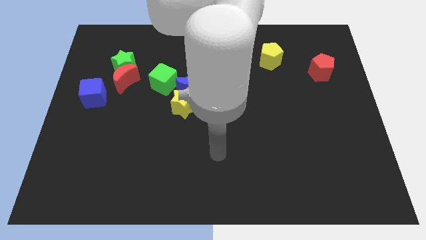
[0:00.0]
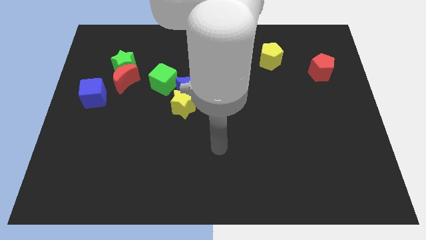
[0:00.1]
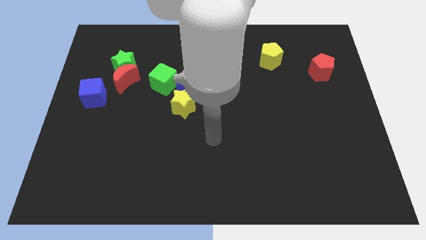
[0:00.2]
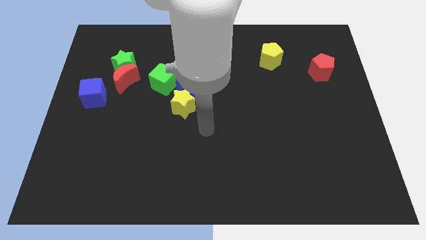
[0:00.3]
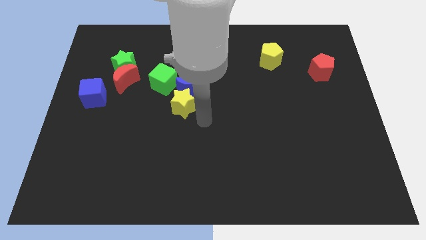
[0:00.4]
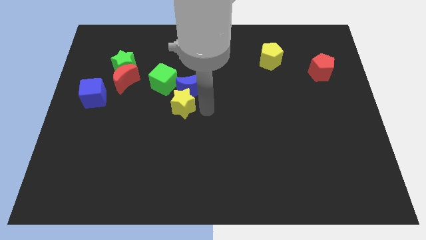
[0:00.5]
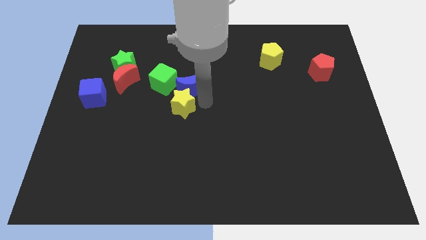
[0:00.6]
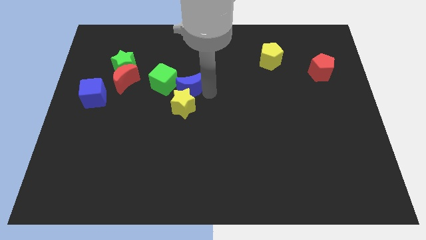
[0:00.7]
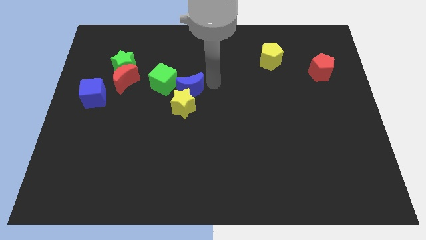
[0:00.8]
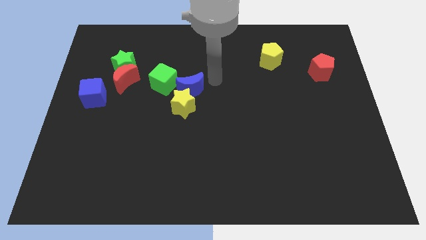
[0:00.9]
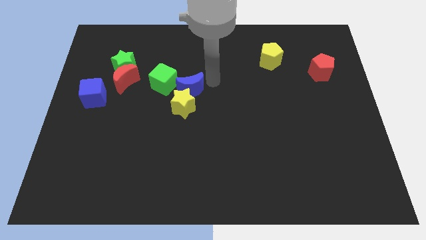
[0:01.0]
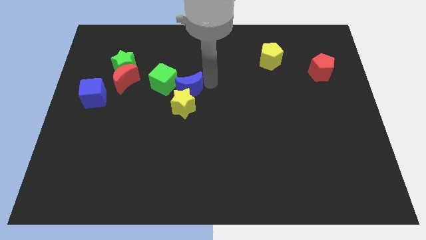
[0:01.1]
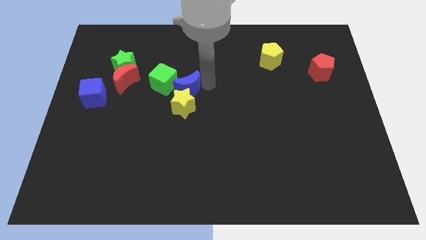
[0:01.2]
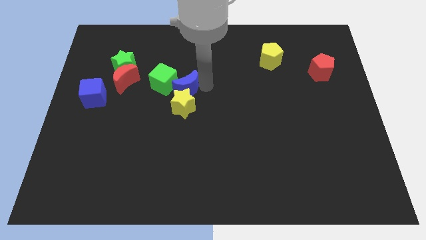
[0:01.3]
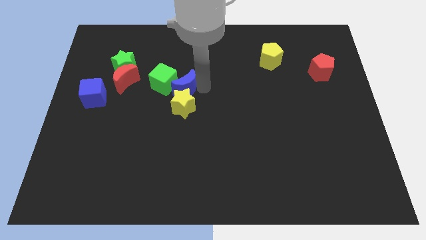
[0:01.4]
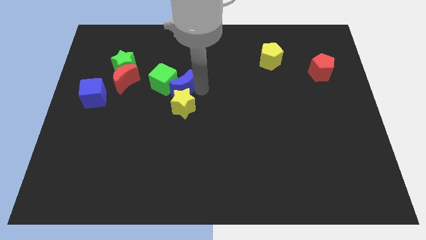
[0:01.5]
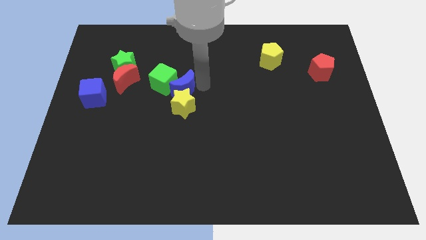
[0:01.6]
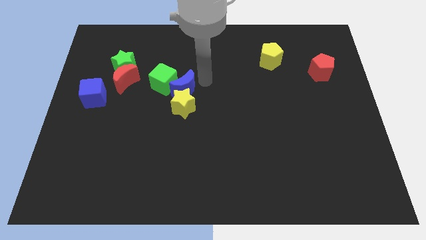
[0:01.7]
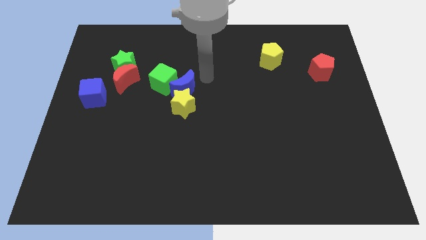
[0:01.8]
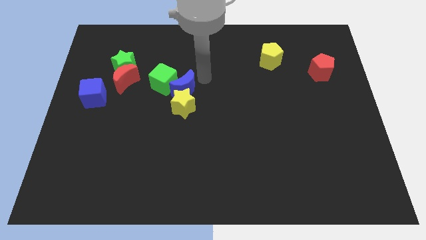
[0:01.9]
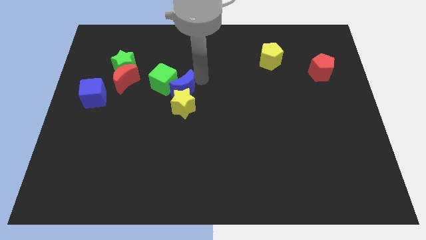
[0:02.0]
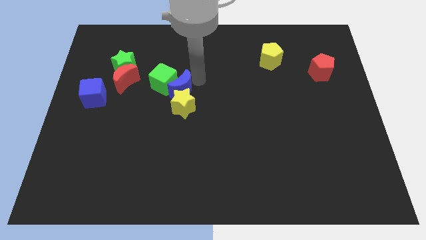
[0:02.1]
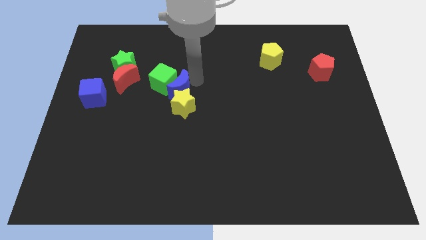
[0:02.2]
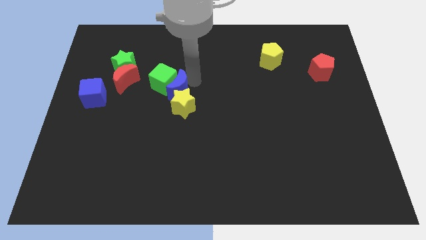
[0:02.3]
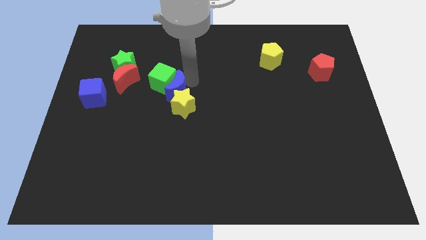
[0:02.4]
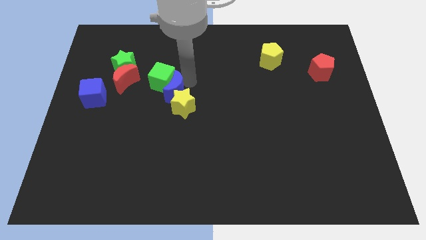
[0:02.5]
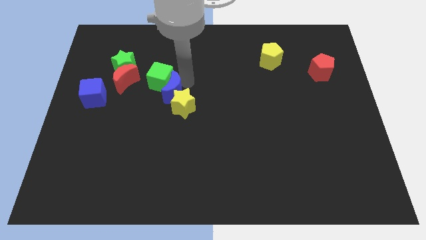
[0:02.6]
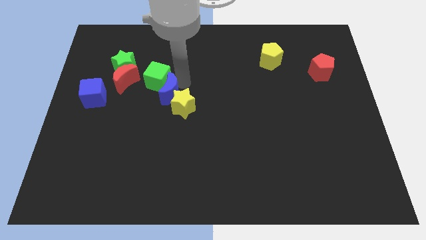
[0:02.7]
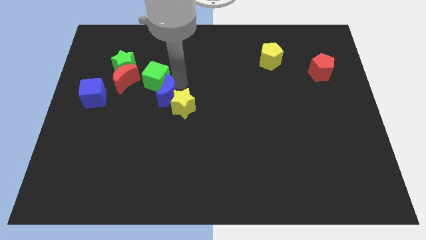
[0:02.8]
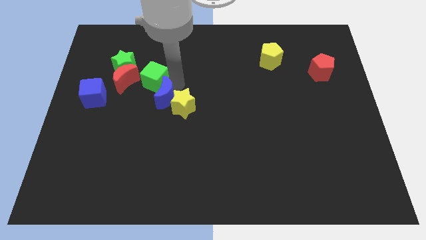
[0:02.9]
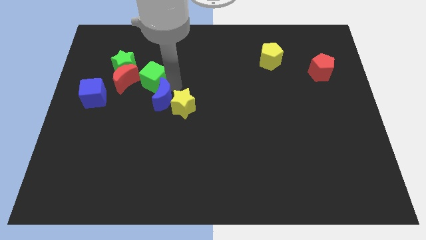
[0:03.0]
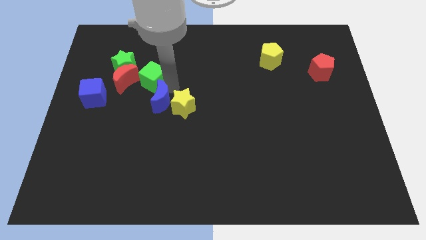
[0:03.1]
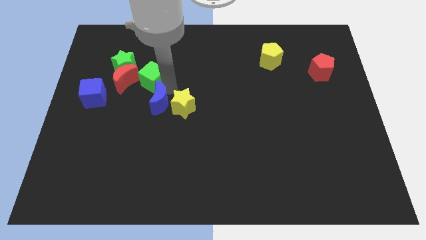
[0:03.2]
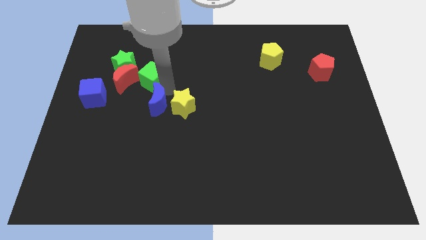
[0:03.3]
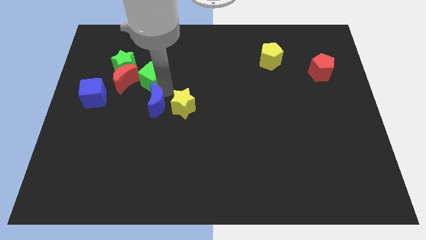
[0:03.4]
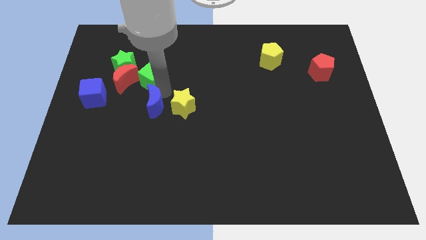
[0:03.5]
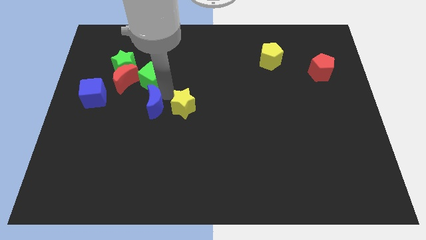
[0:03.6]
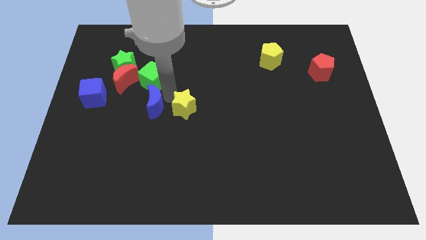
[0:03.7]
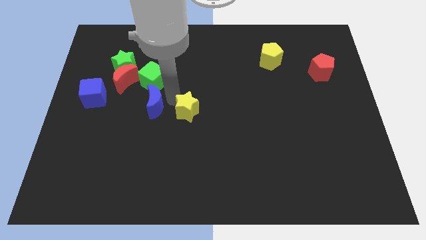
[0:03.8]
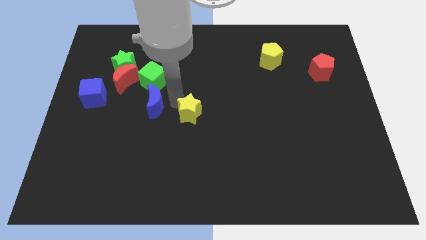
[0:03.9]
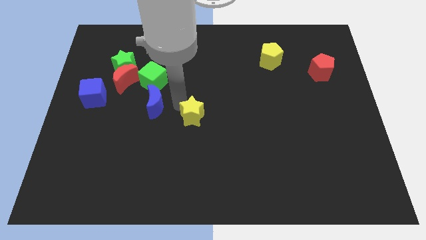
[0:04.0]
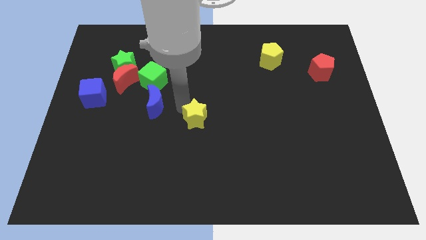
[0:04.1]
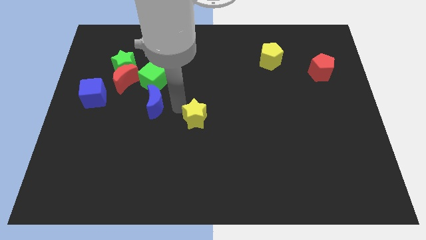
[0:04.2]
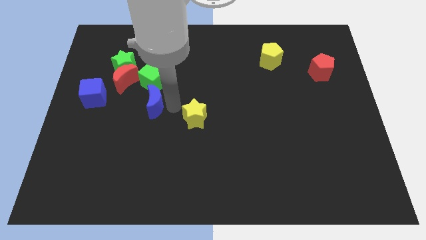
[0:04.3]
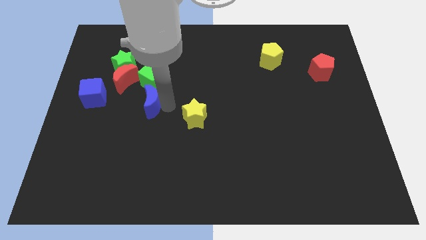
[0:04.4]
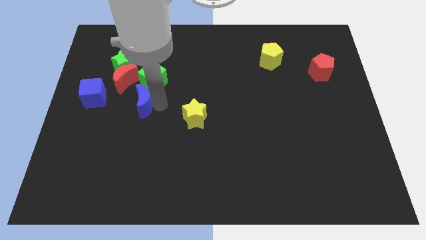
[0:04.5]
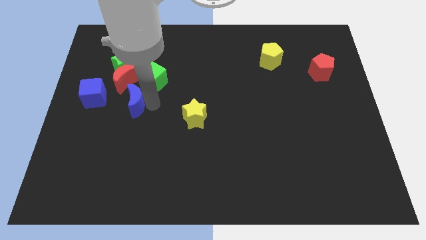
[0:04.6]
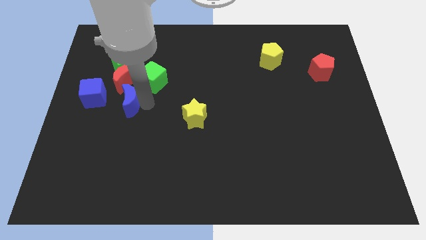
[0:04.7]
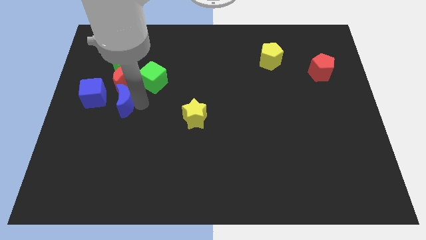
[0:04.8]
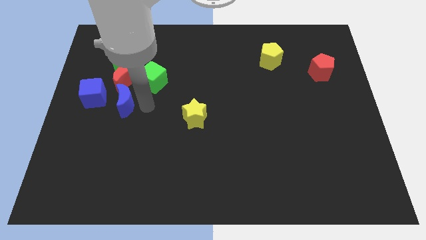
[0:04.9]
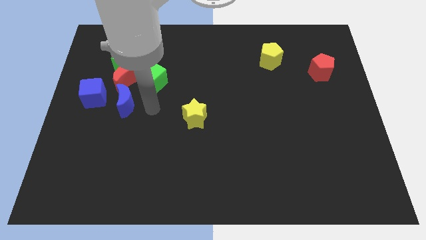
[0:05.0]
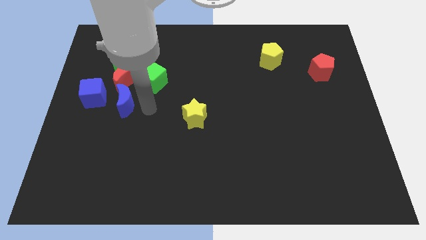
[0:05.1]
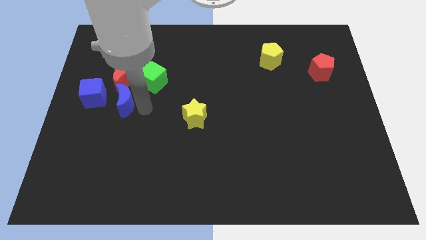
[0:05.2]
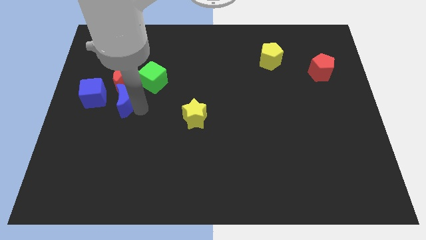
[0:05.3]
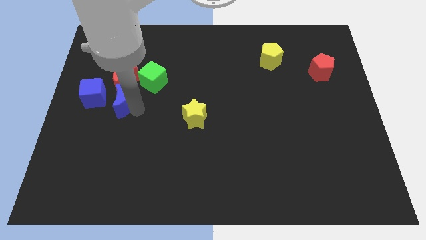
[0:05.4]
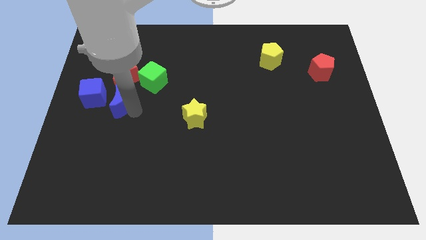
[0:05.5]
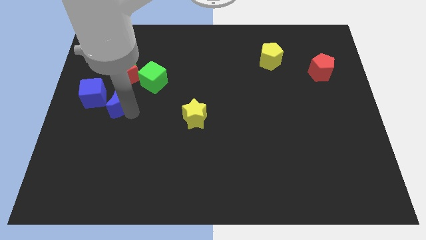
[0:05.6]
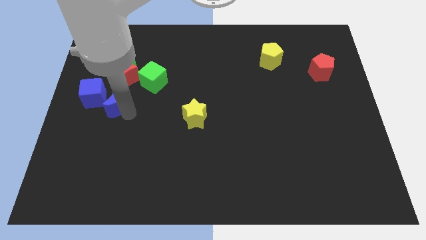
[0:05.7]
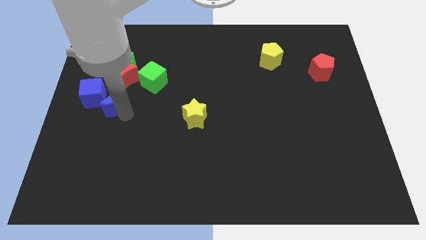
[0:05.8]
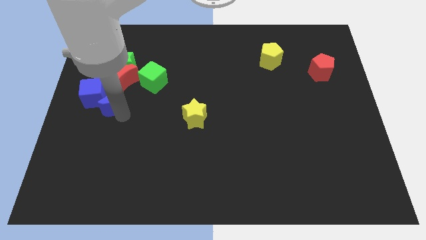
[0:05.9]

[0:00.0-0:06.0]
push the blue moon towards the blue cube

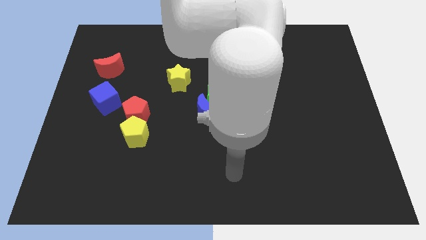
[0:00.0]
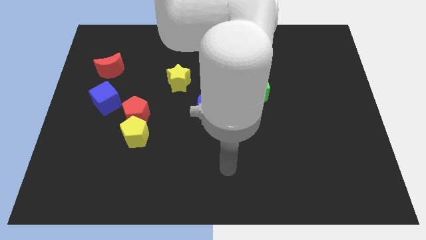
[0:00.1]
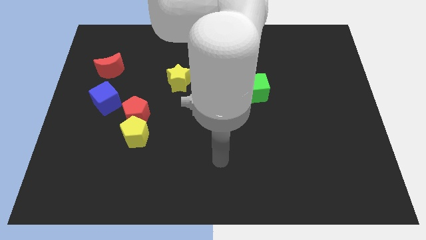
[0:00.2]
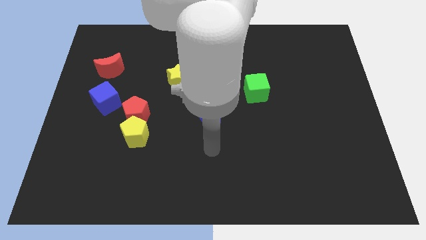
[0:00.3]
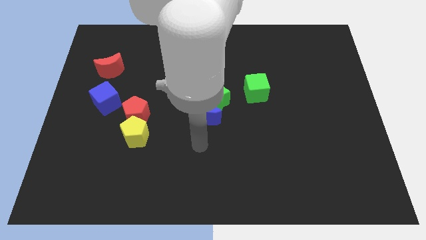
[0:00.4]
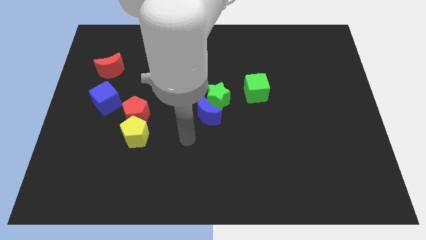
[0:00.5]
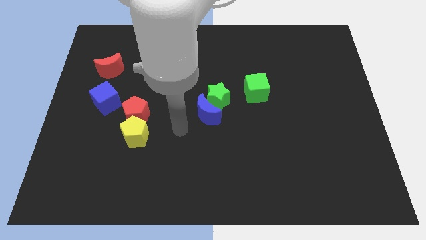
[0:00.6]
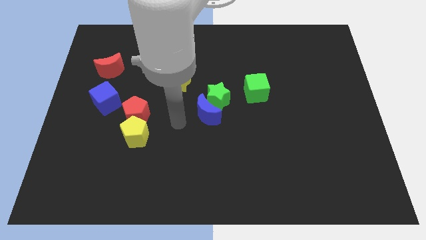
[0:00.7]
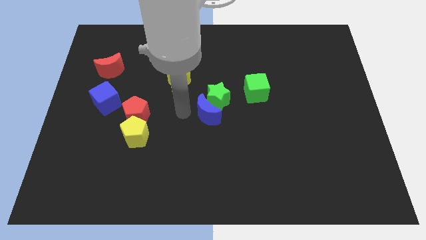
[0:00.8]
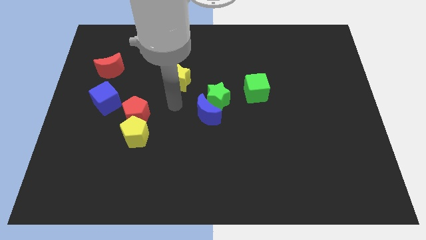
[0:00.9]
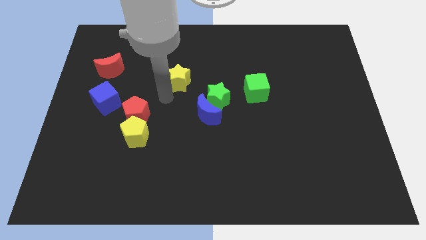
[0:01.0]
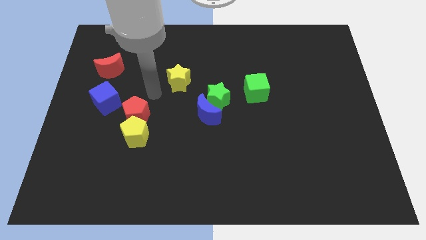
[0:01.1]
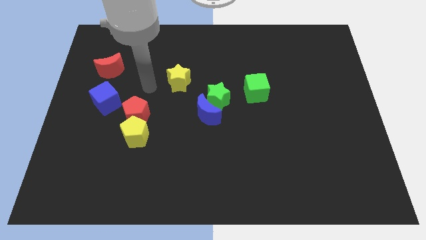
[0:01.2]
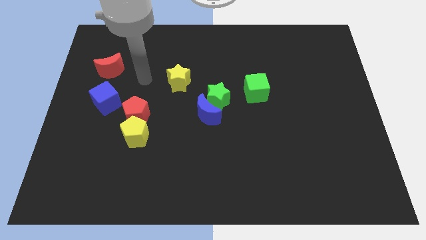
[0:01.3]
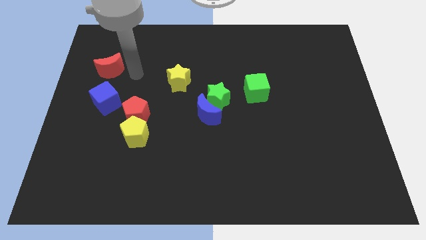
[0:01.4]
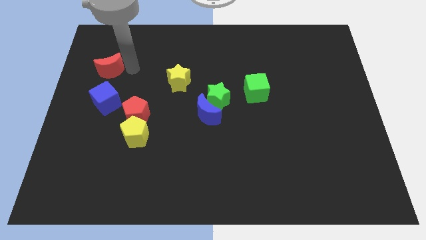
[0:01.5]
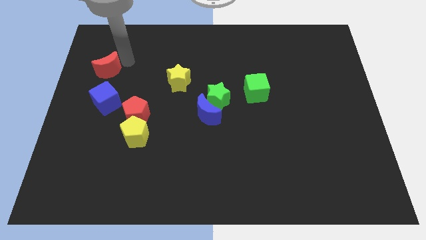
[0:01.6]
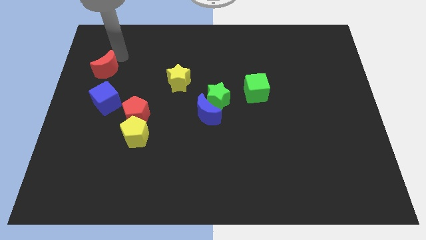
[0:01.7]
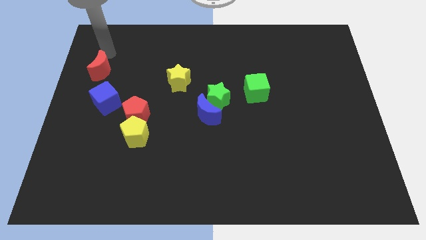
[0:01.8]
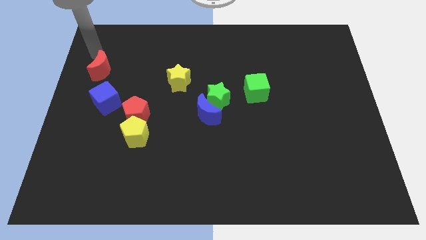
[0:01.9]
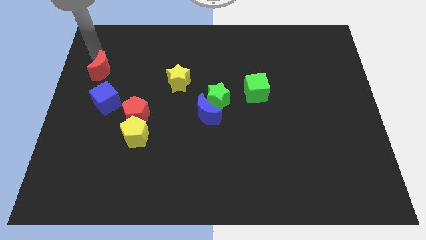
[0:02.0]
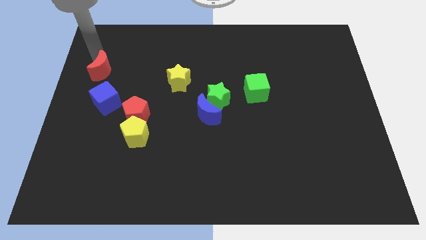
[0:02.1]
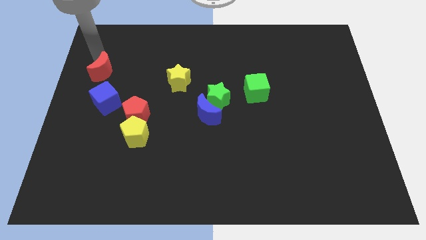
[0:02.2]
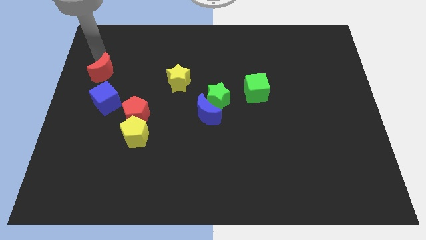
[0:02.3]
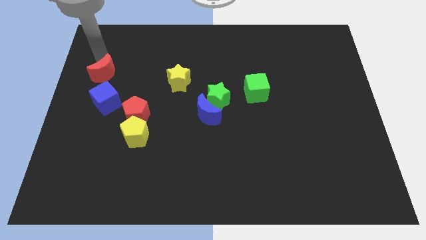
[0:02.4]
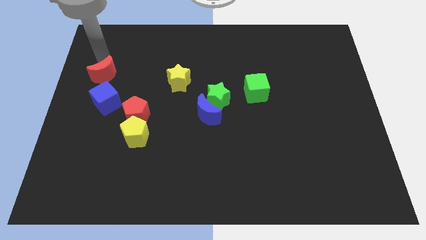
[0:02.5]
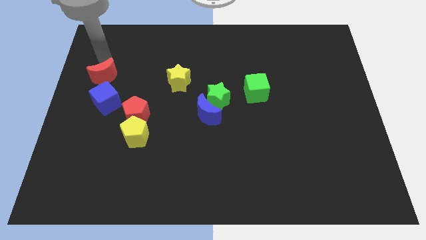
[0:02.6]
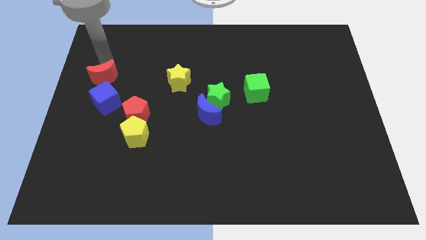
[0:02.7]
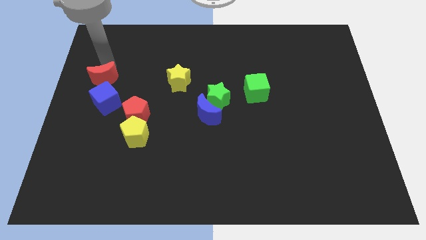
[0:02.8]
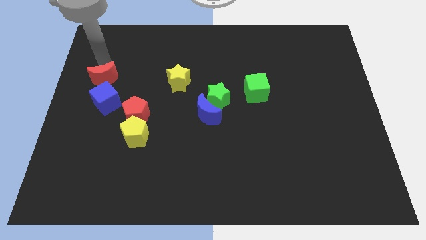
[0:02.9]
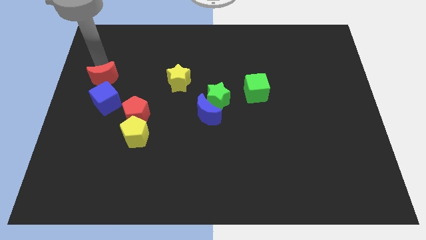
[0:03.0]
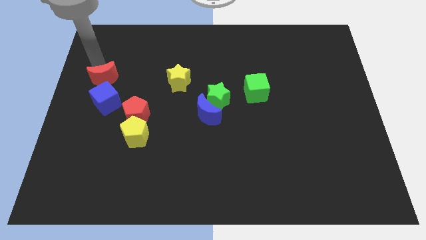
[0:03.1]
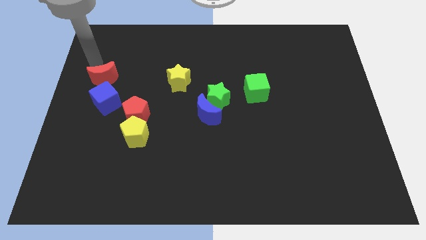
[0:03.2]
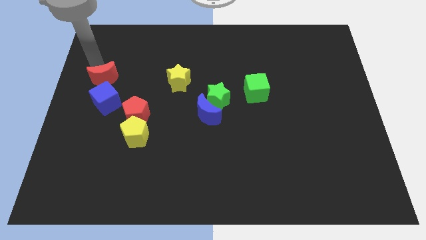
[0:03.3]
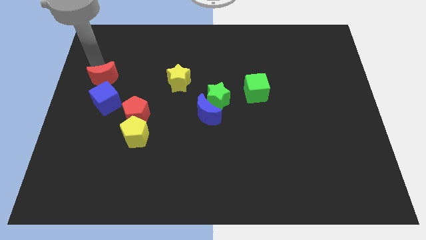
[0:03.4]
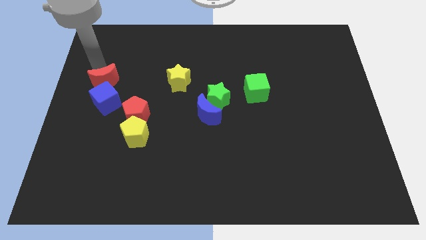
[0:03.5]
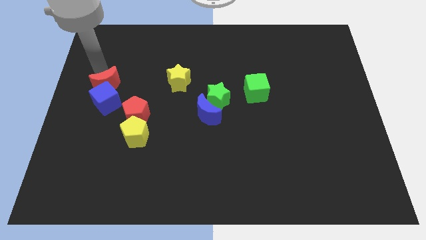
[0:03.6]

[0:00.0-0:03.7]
push the red moon next to the blue cube
